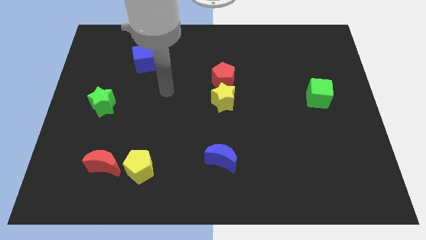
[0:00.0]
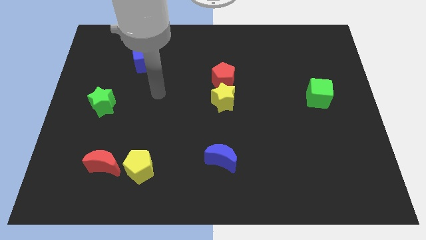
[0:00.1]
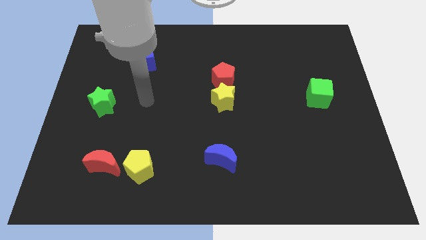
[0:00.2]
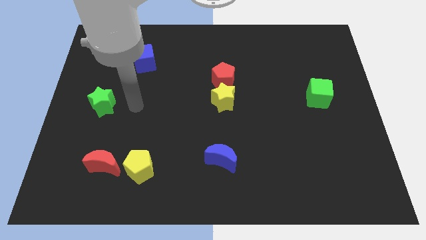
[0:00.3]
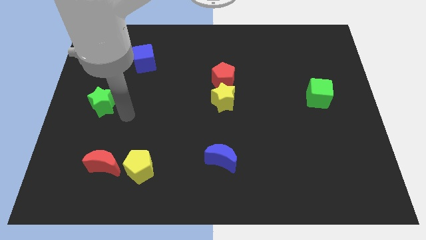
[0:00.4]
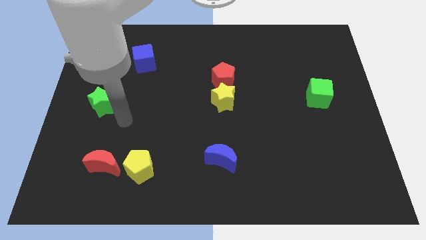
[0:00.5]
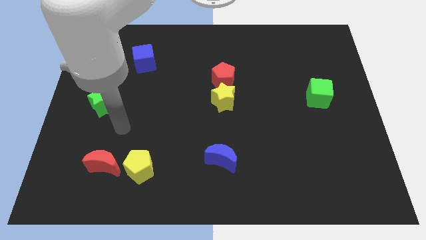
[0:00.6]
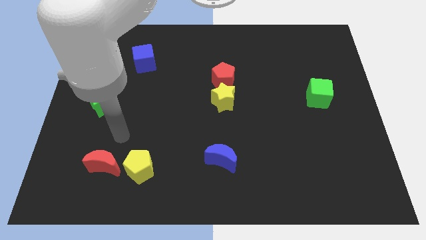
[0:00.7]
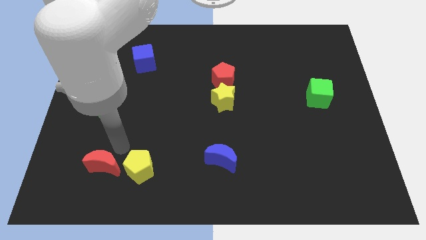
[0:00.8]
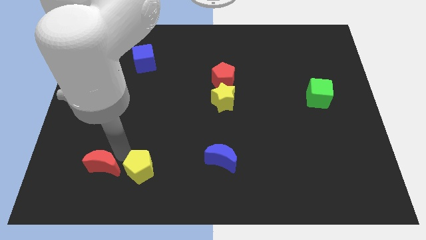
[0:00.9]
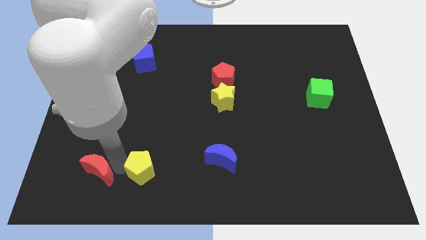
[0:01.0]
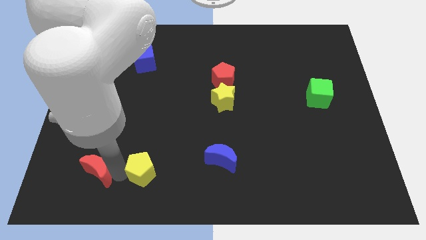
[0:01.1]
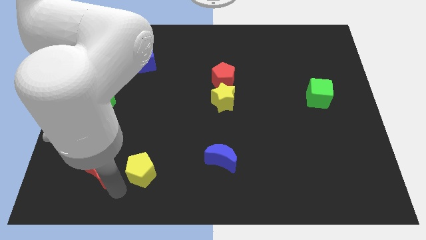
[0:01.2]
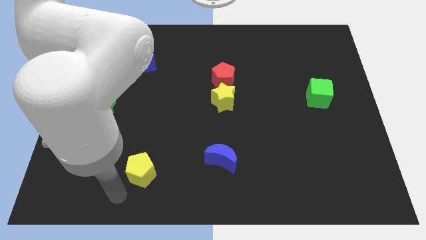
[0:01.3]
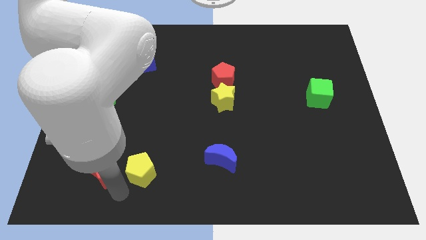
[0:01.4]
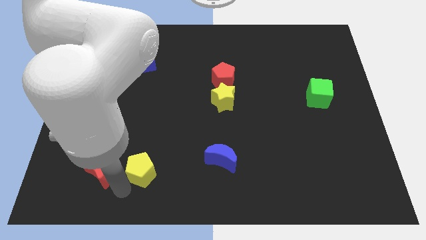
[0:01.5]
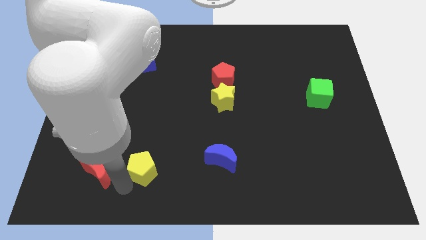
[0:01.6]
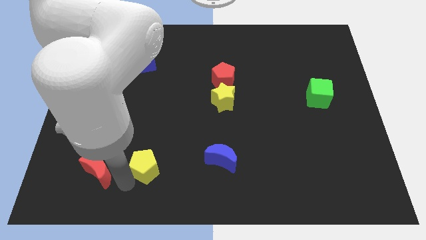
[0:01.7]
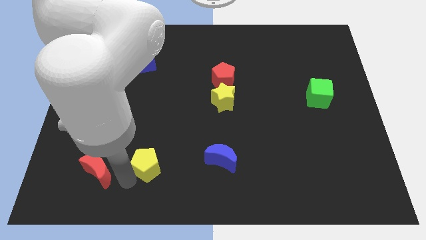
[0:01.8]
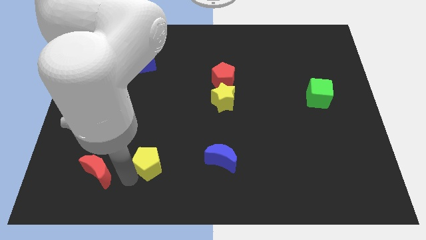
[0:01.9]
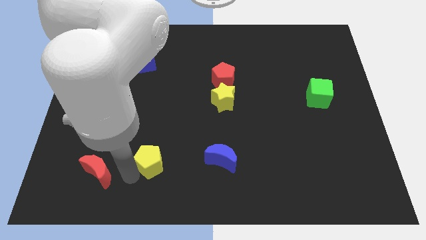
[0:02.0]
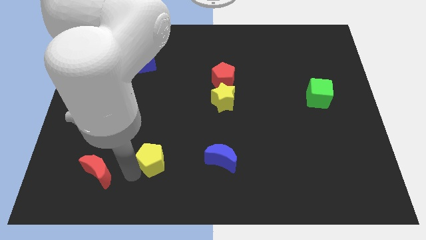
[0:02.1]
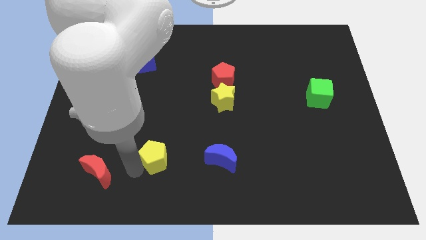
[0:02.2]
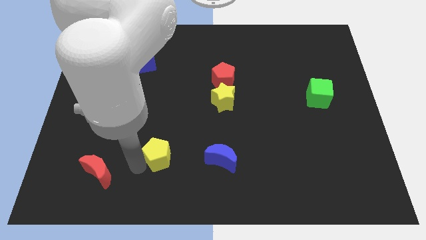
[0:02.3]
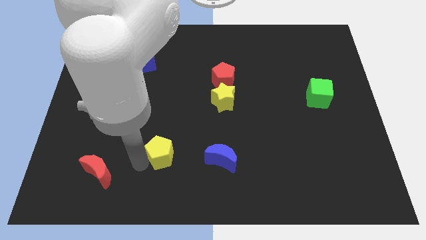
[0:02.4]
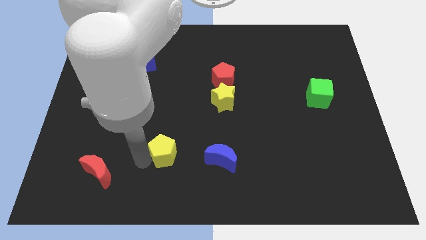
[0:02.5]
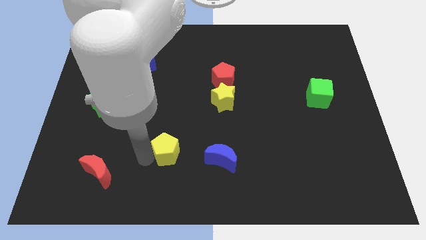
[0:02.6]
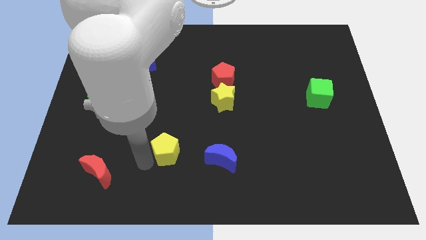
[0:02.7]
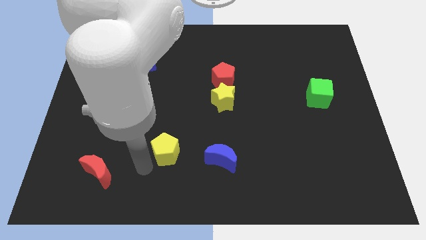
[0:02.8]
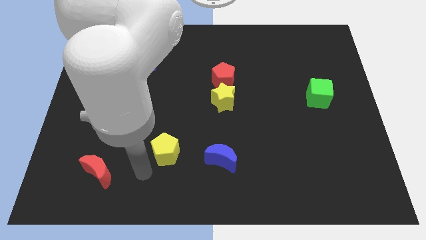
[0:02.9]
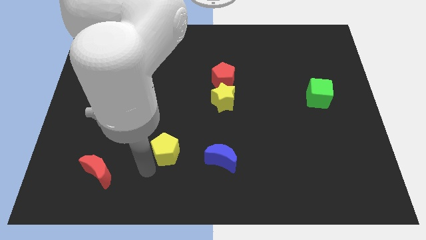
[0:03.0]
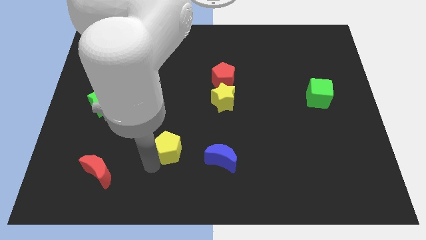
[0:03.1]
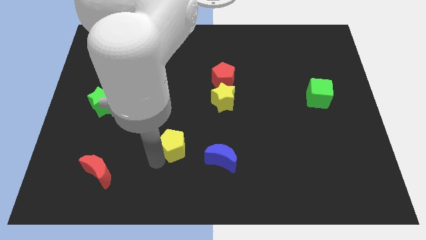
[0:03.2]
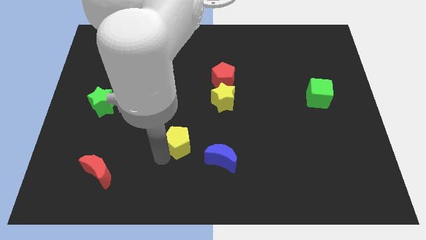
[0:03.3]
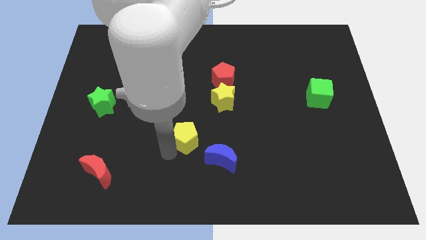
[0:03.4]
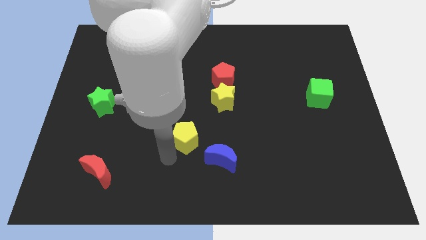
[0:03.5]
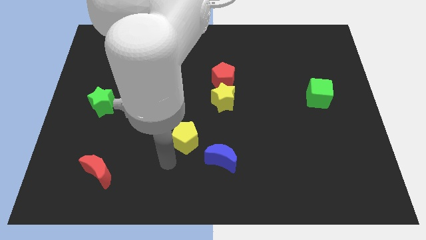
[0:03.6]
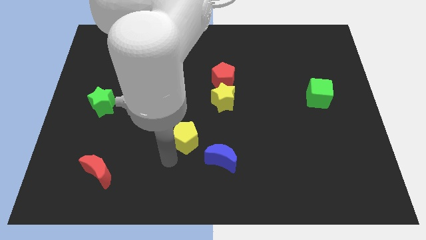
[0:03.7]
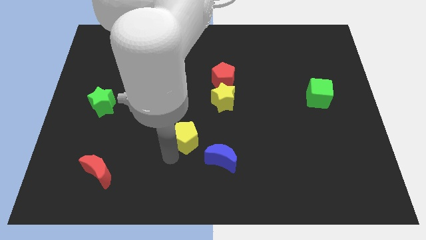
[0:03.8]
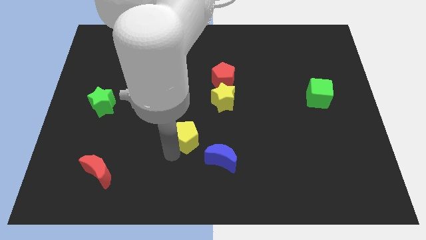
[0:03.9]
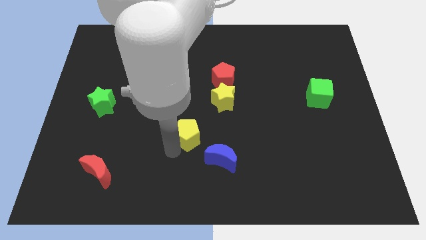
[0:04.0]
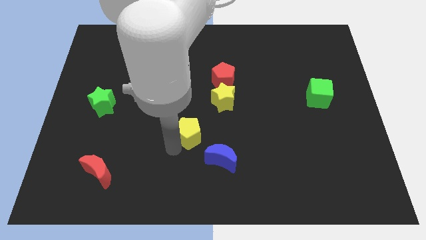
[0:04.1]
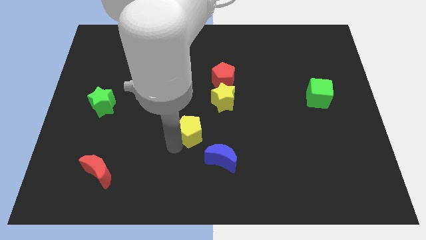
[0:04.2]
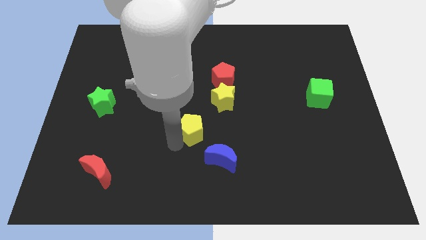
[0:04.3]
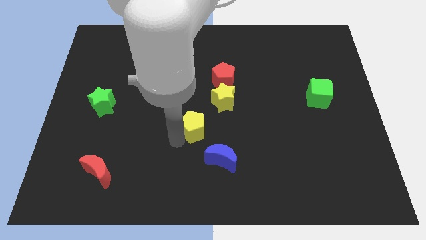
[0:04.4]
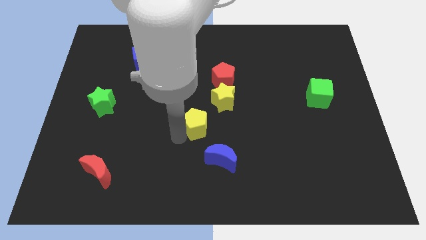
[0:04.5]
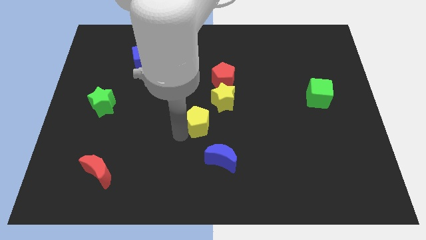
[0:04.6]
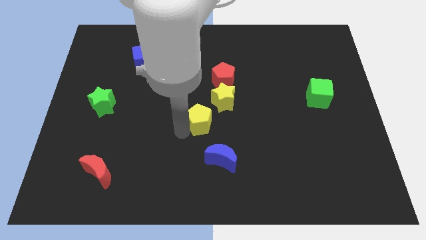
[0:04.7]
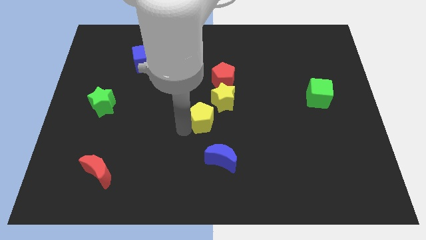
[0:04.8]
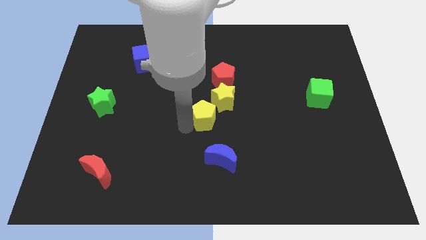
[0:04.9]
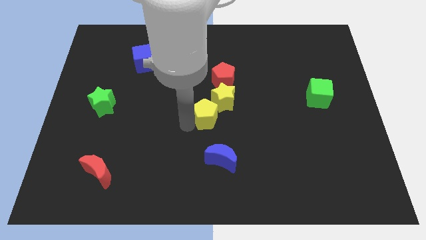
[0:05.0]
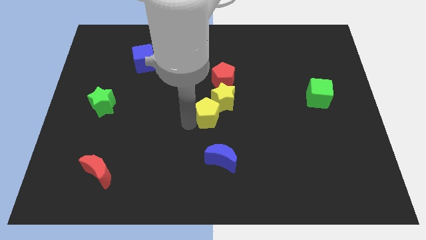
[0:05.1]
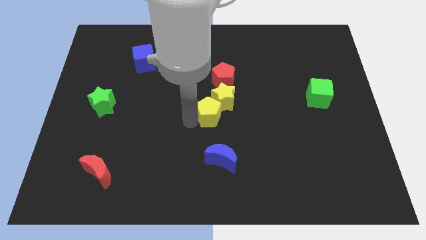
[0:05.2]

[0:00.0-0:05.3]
push the yellow pentagon diagonally upwards and to the right

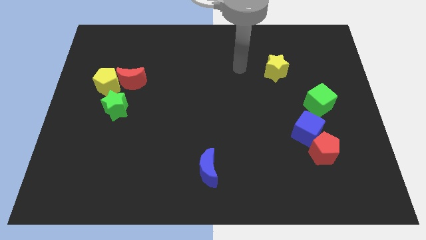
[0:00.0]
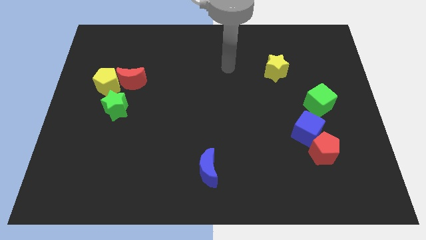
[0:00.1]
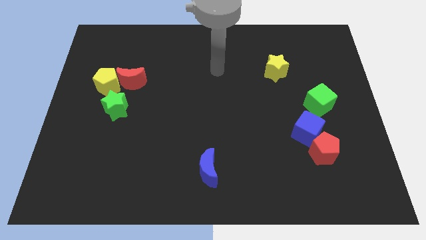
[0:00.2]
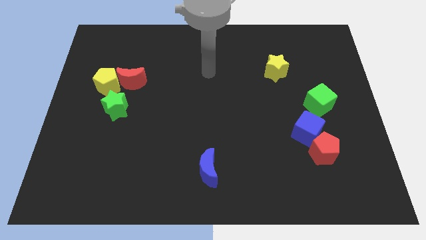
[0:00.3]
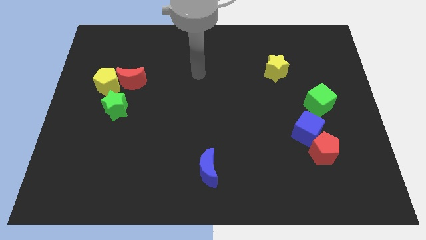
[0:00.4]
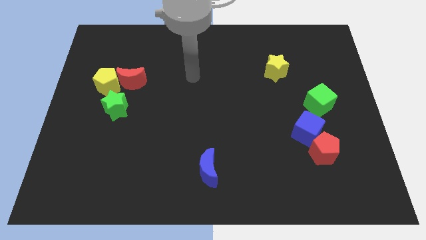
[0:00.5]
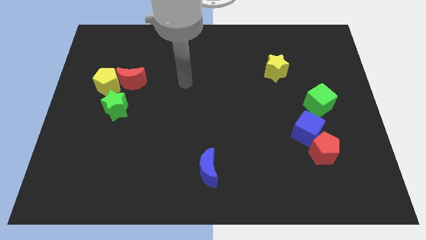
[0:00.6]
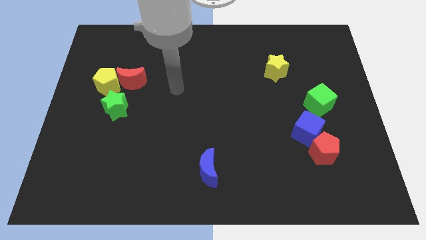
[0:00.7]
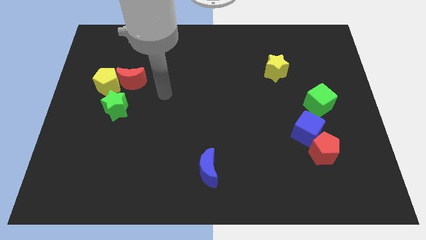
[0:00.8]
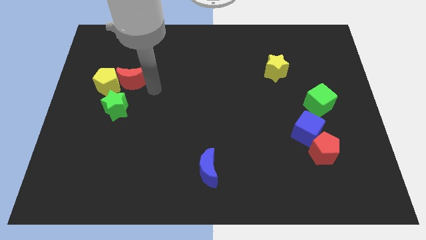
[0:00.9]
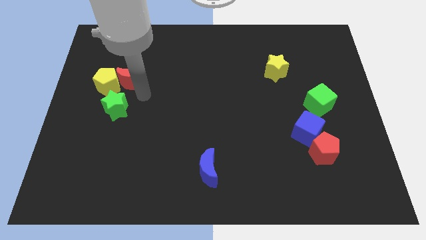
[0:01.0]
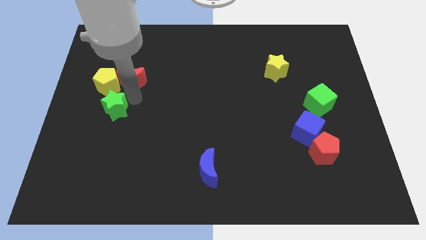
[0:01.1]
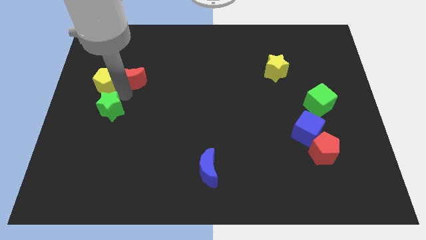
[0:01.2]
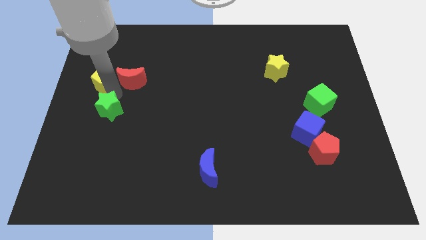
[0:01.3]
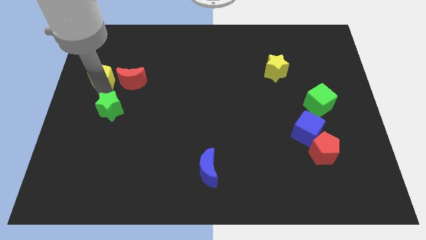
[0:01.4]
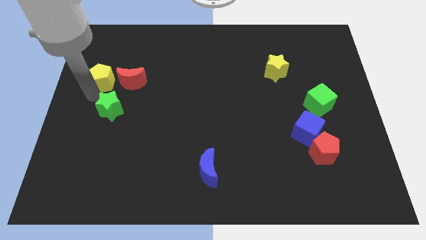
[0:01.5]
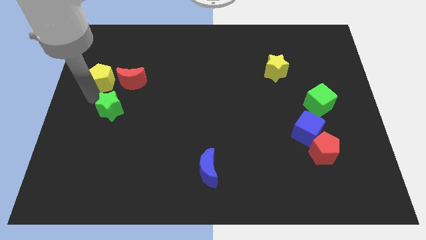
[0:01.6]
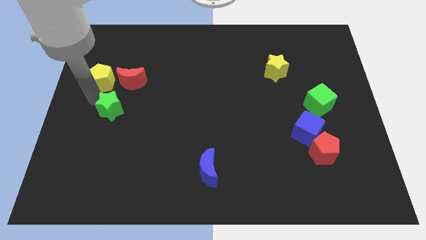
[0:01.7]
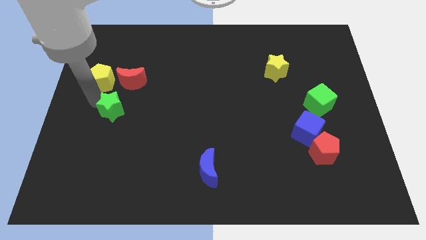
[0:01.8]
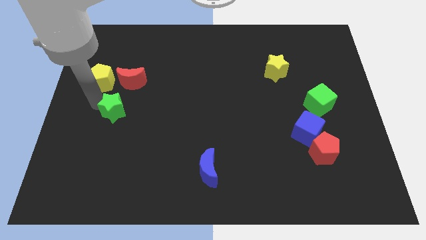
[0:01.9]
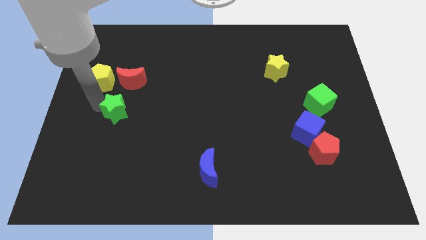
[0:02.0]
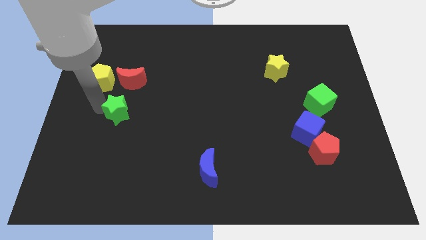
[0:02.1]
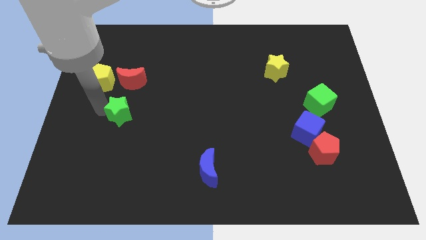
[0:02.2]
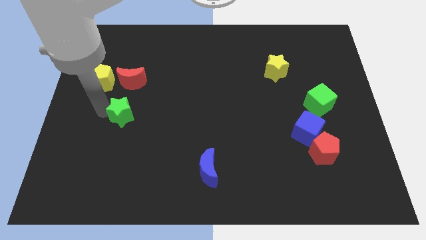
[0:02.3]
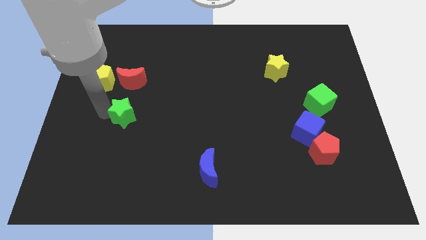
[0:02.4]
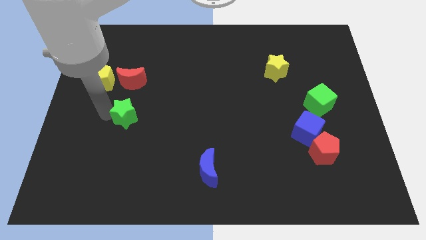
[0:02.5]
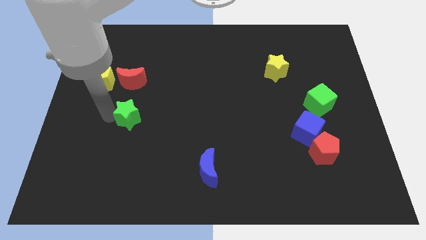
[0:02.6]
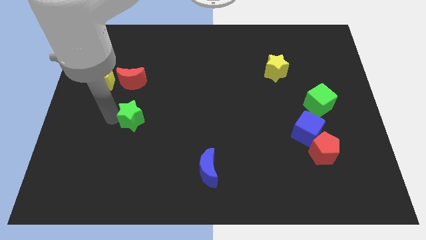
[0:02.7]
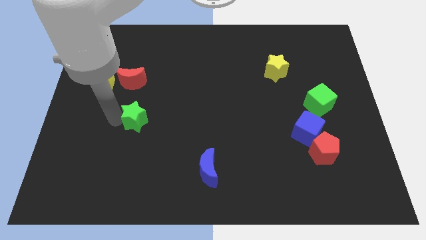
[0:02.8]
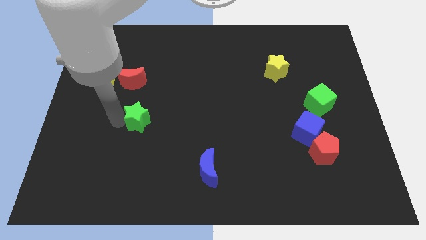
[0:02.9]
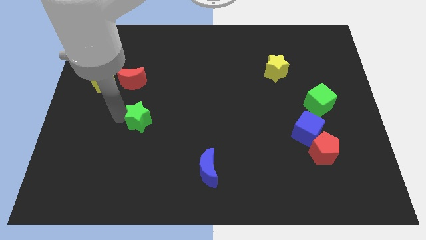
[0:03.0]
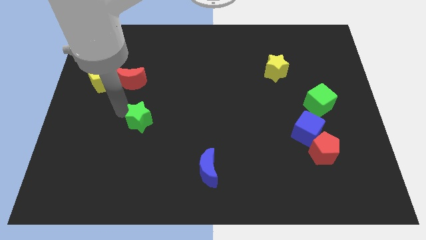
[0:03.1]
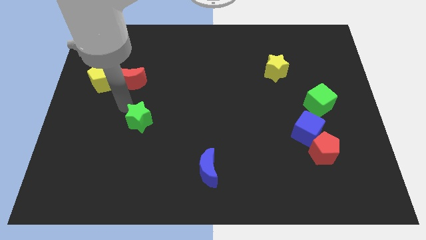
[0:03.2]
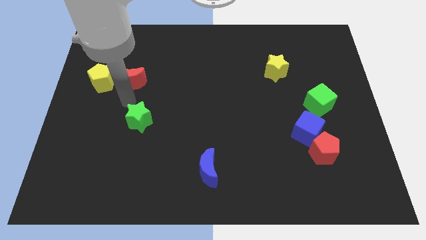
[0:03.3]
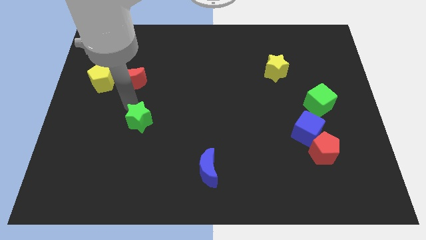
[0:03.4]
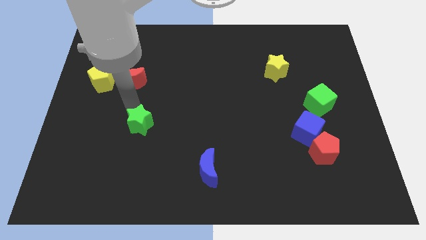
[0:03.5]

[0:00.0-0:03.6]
push the green star downwards and then right a little bit
